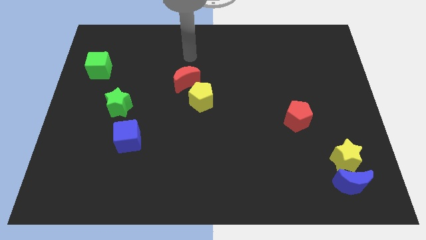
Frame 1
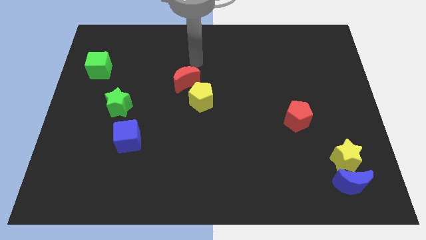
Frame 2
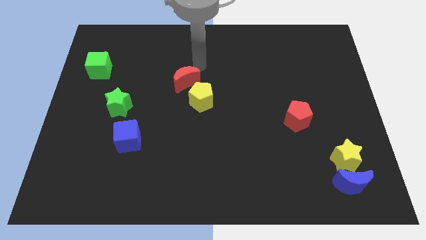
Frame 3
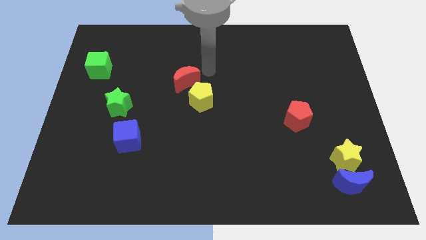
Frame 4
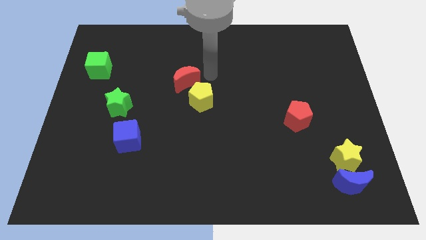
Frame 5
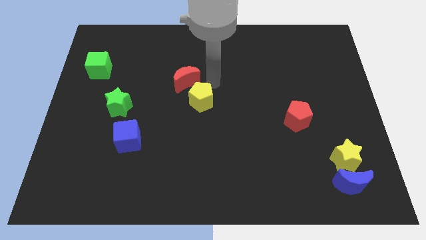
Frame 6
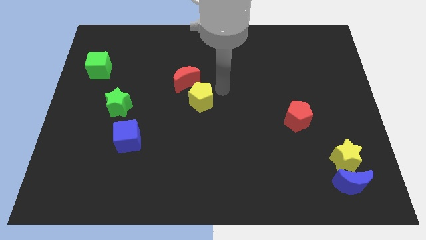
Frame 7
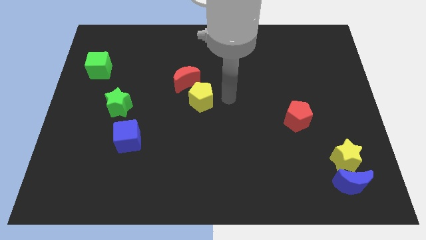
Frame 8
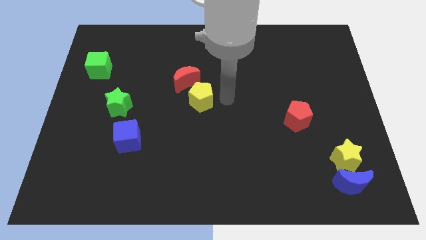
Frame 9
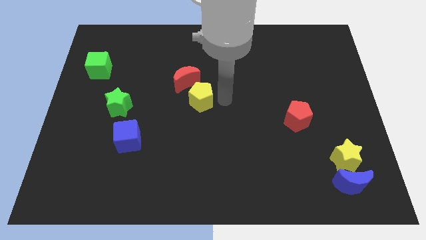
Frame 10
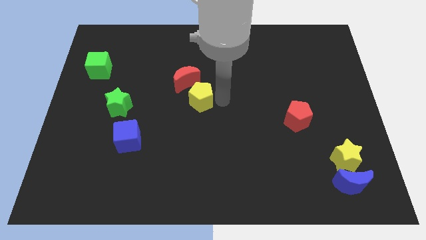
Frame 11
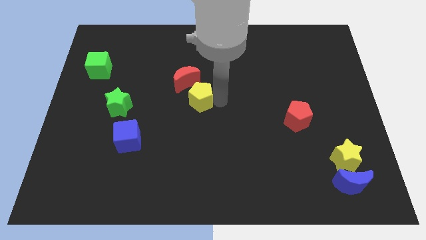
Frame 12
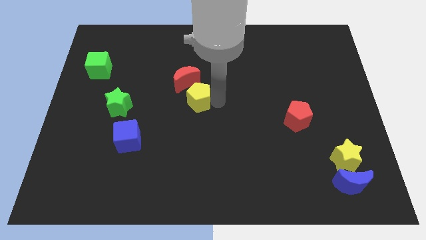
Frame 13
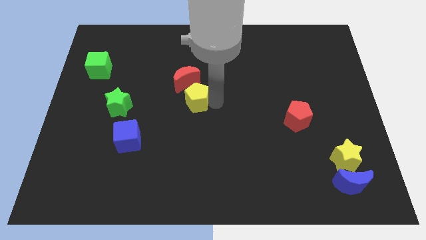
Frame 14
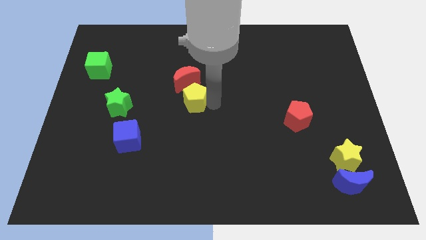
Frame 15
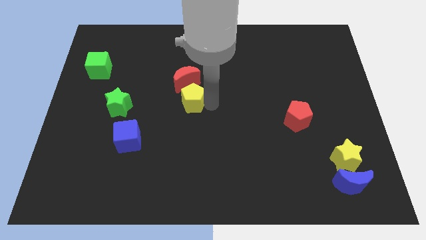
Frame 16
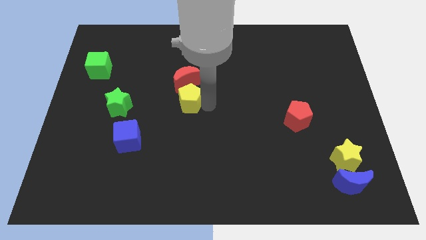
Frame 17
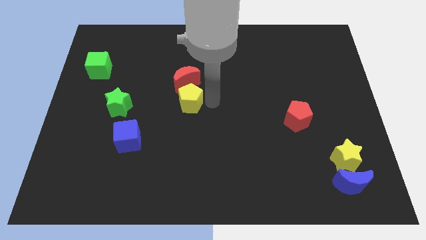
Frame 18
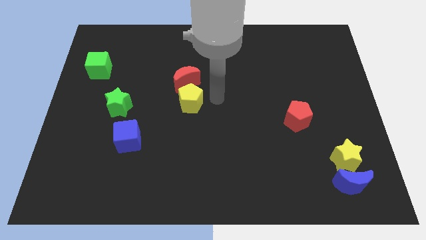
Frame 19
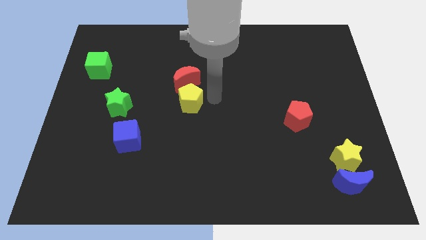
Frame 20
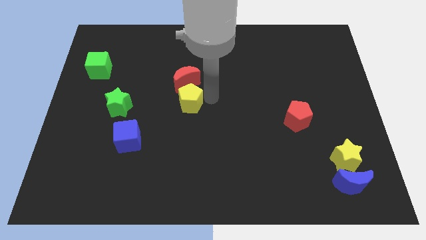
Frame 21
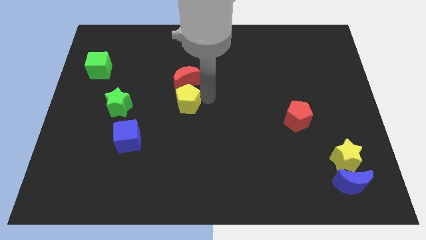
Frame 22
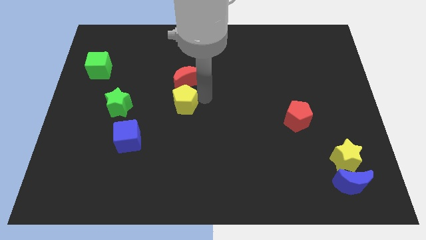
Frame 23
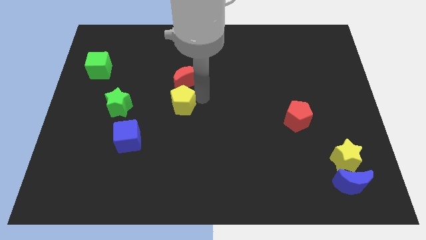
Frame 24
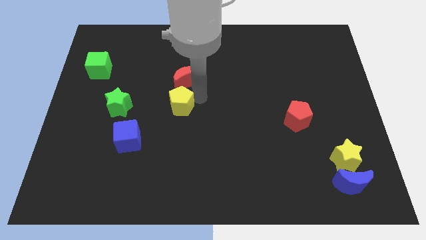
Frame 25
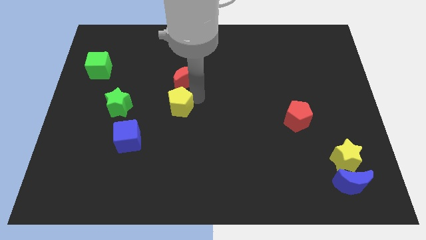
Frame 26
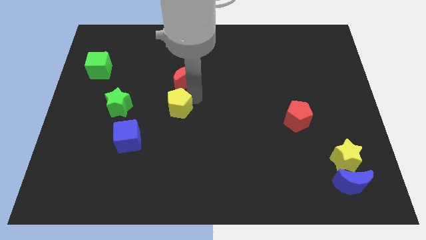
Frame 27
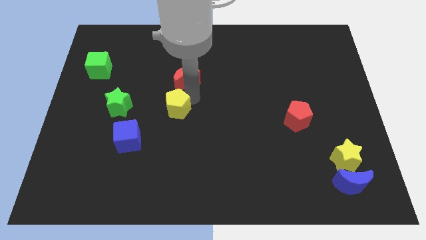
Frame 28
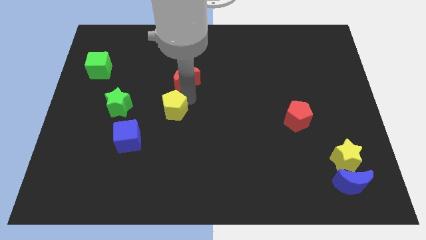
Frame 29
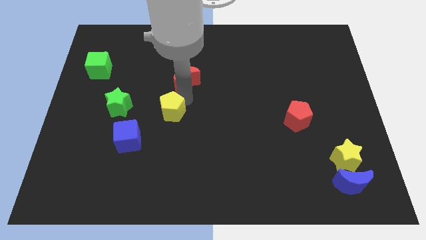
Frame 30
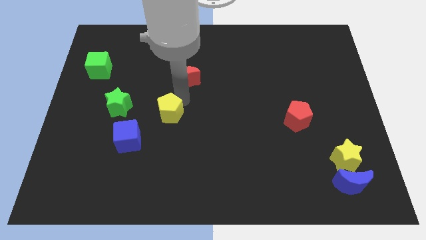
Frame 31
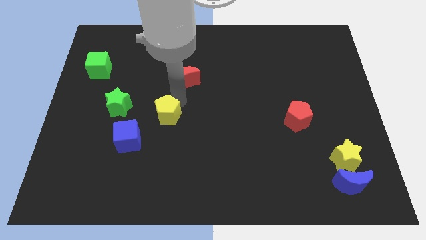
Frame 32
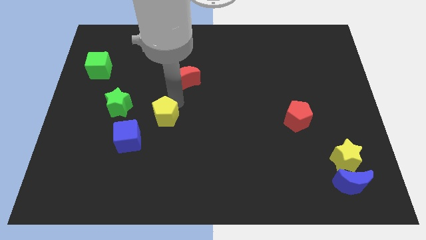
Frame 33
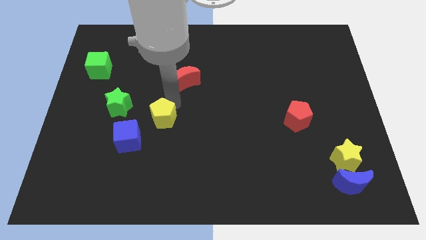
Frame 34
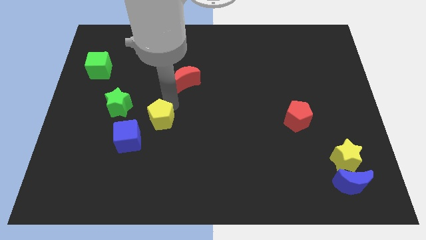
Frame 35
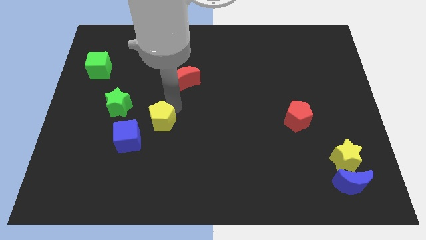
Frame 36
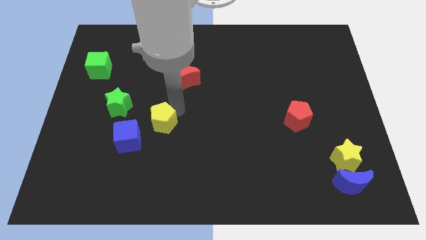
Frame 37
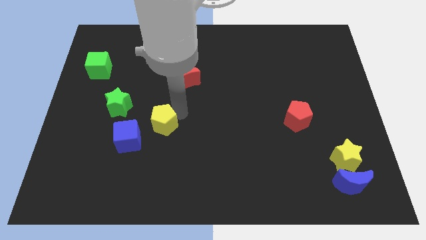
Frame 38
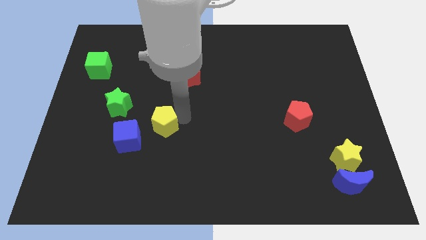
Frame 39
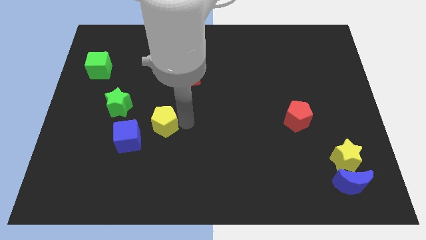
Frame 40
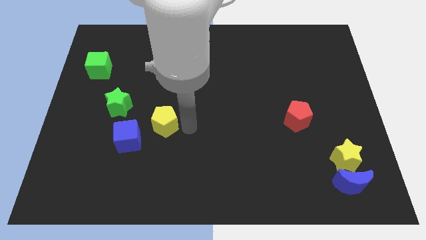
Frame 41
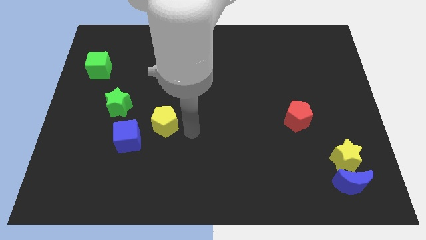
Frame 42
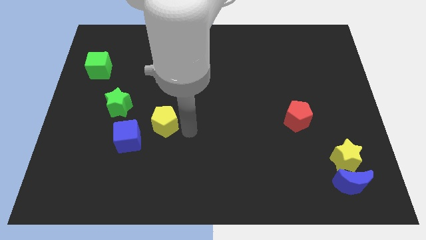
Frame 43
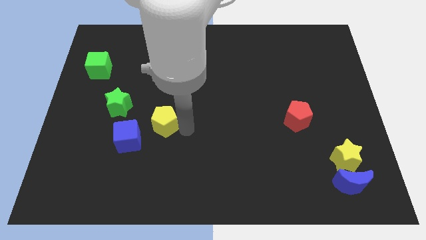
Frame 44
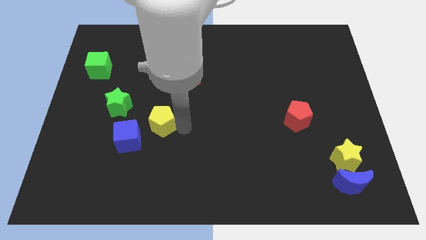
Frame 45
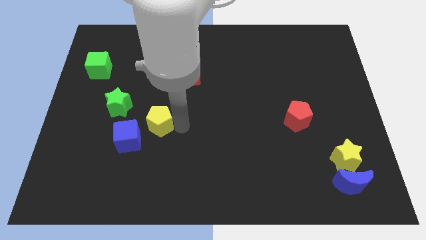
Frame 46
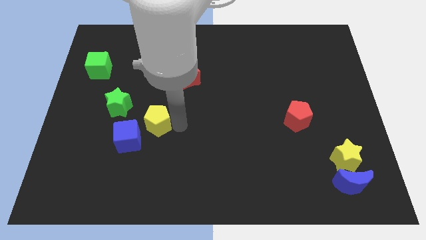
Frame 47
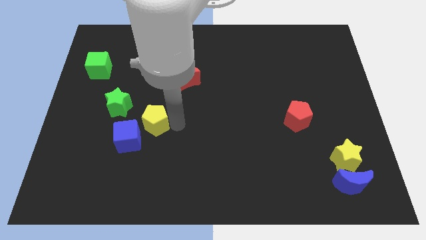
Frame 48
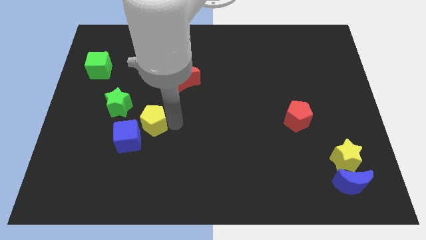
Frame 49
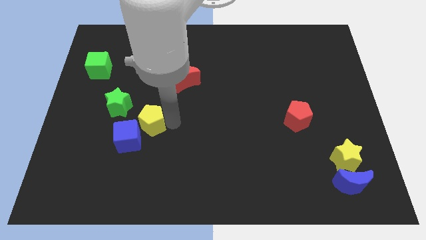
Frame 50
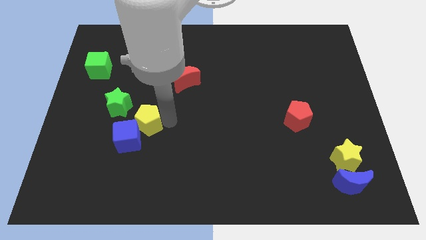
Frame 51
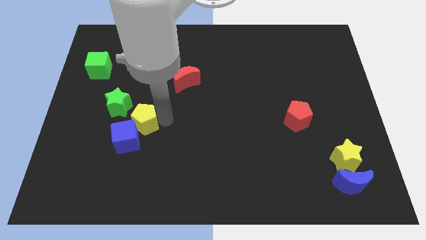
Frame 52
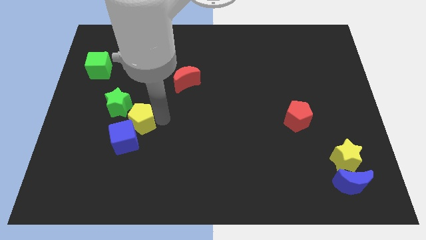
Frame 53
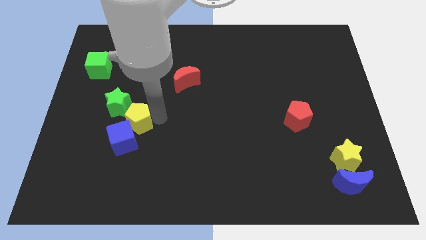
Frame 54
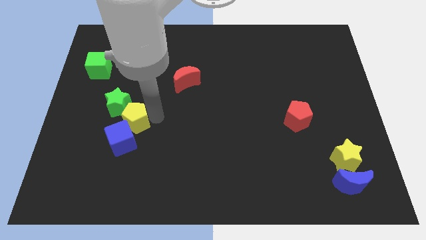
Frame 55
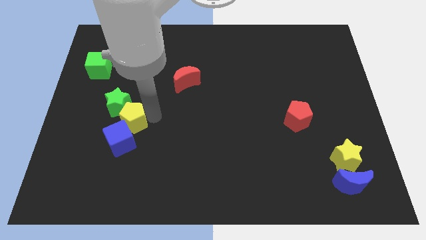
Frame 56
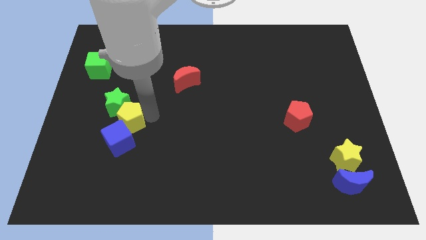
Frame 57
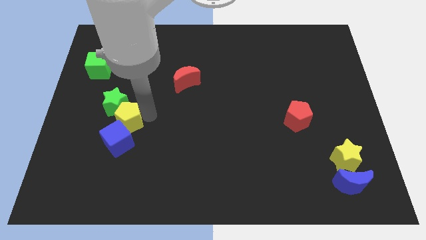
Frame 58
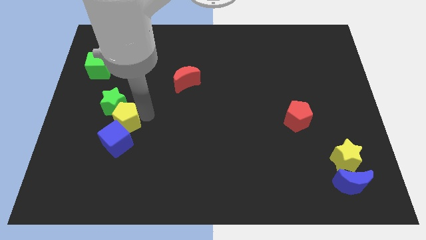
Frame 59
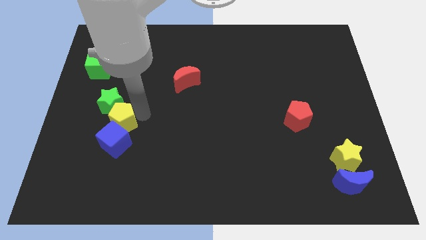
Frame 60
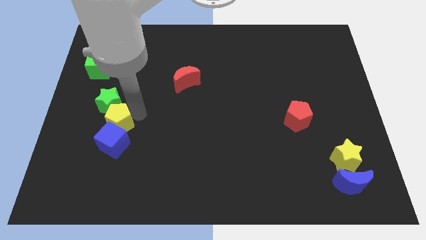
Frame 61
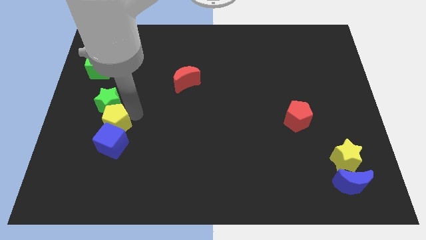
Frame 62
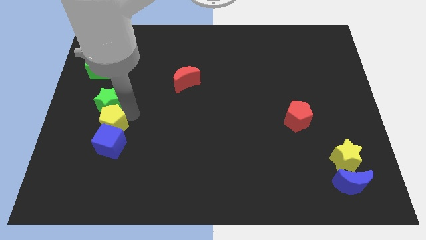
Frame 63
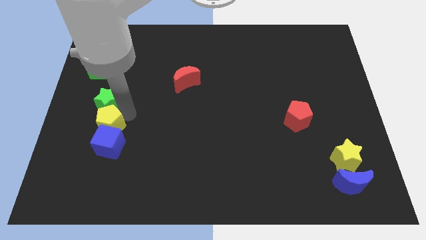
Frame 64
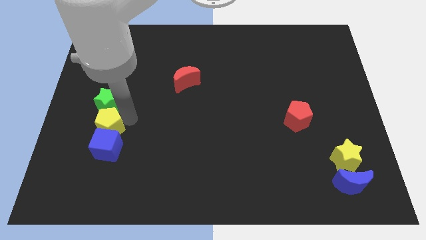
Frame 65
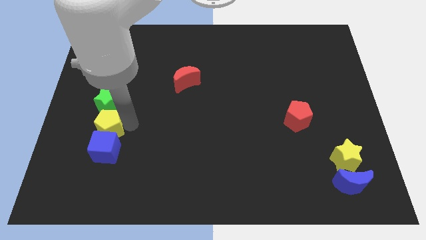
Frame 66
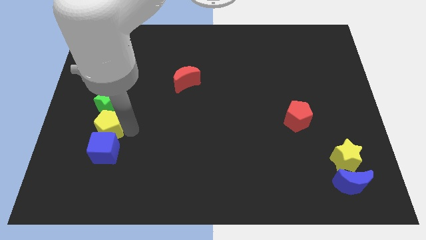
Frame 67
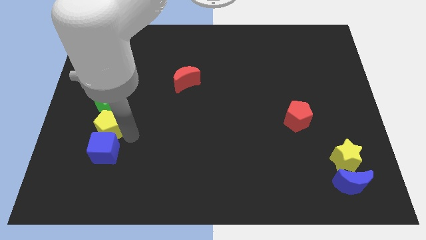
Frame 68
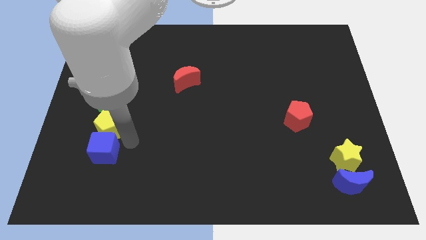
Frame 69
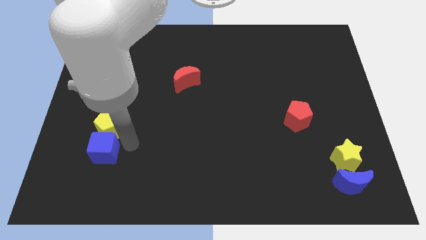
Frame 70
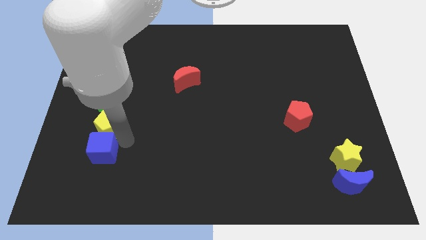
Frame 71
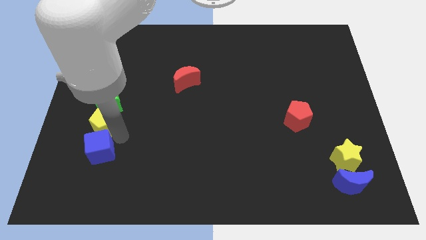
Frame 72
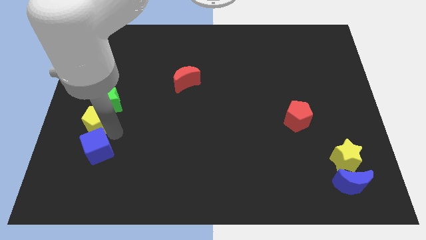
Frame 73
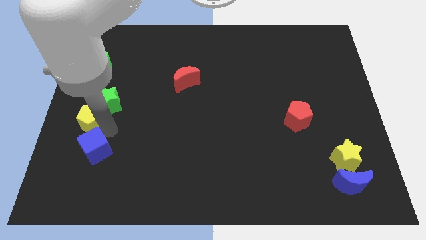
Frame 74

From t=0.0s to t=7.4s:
slide the yellow pentagon to the left side of the board
